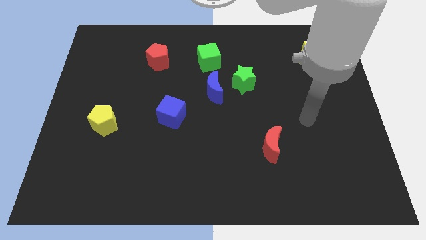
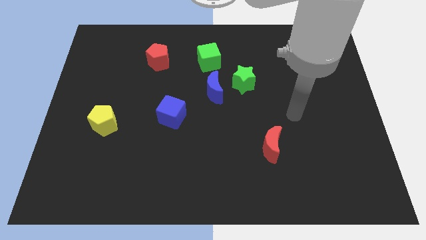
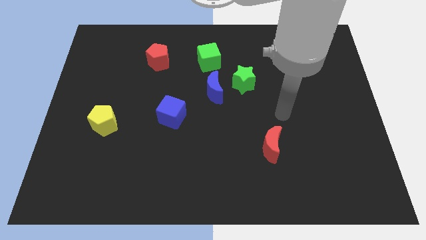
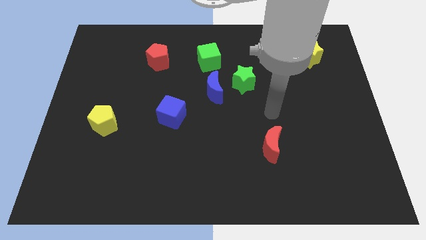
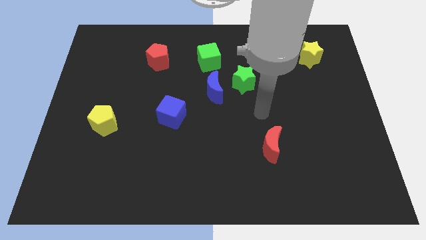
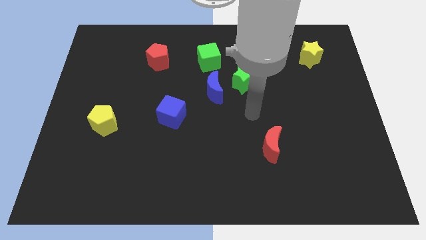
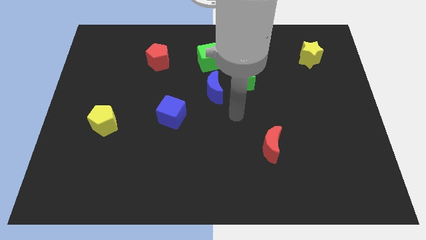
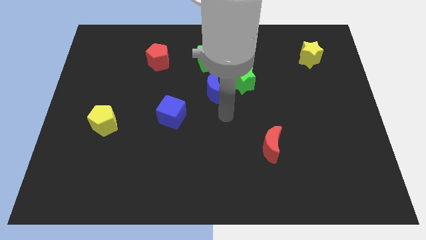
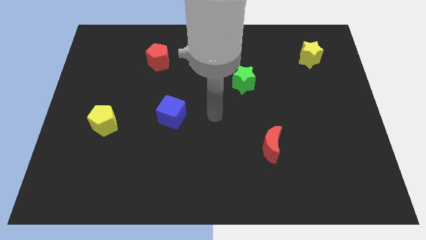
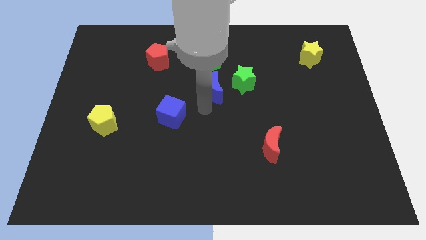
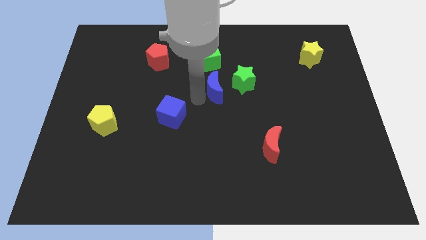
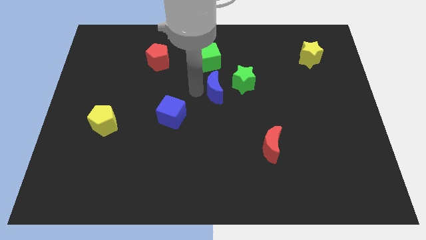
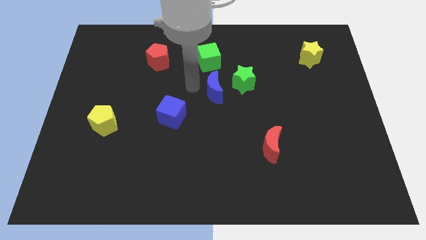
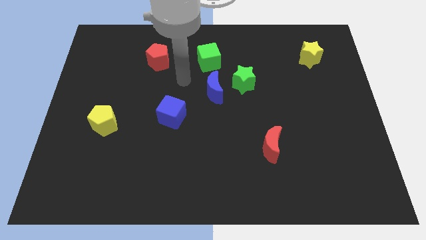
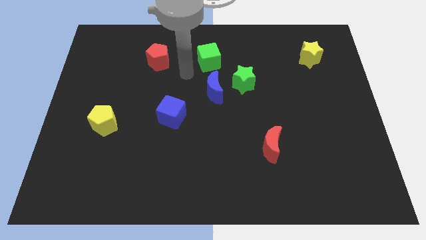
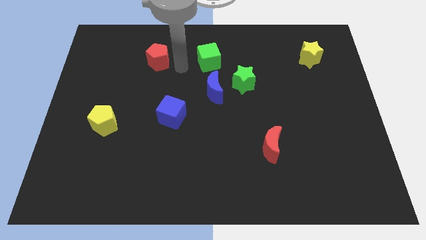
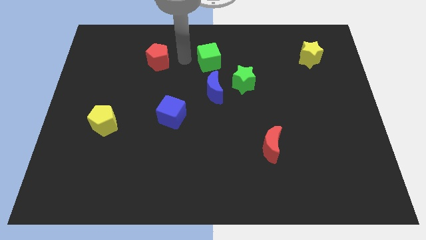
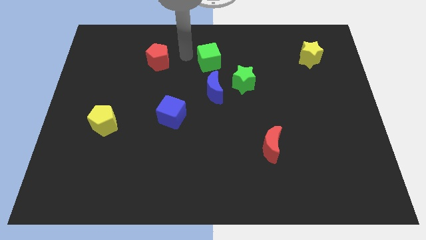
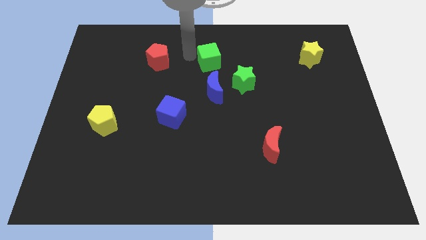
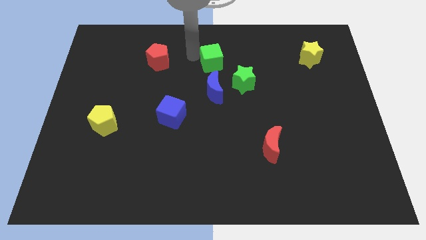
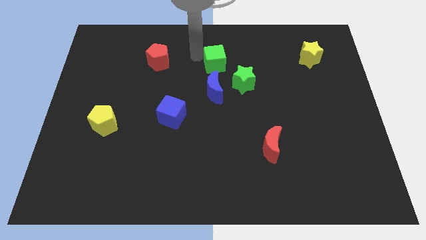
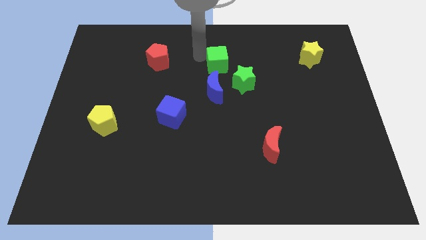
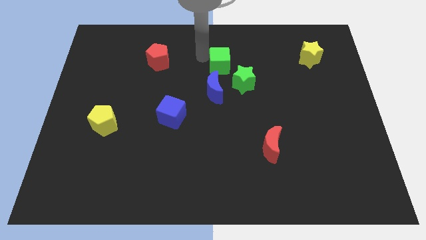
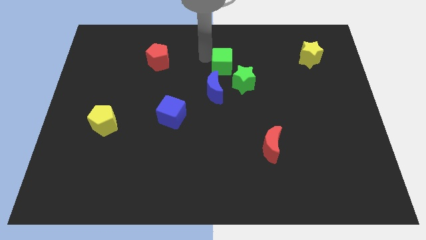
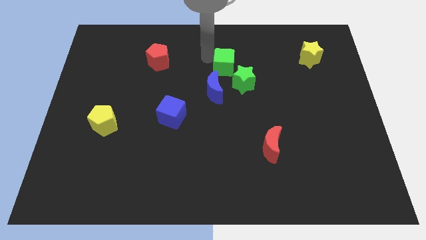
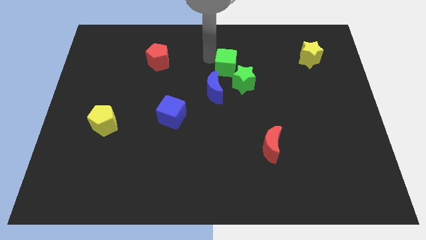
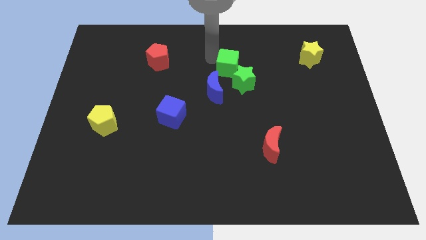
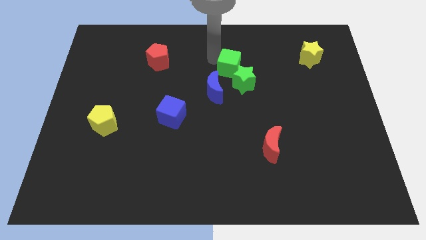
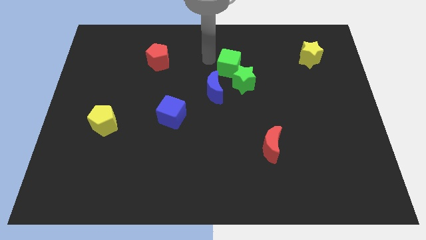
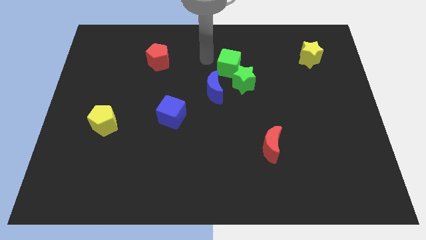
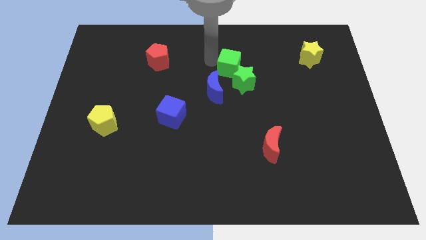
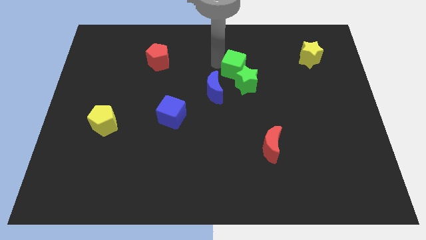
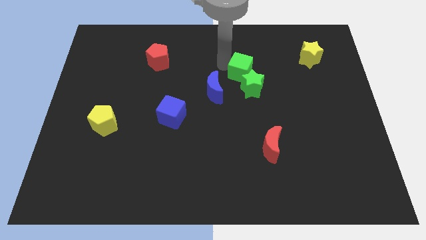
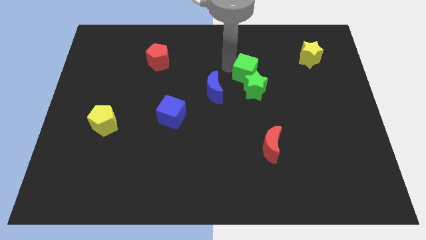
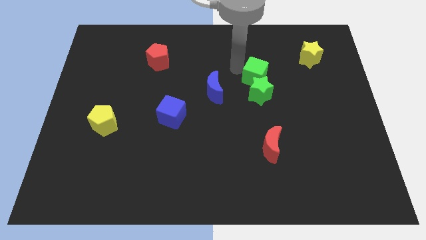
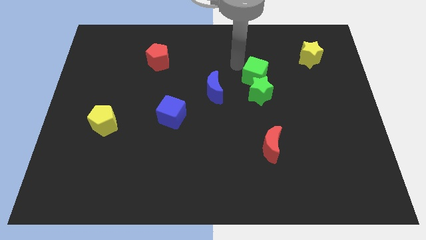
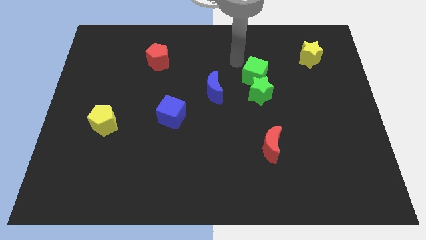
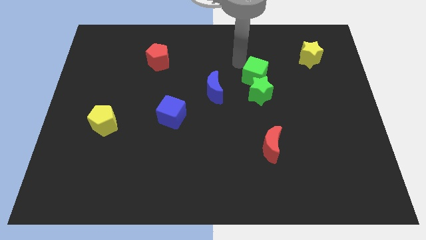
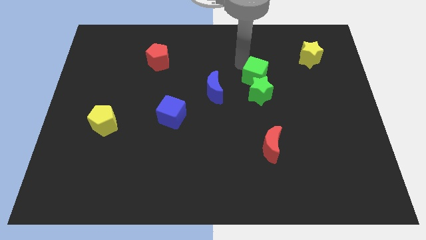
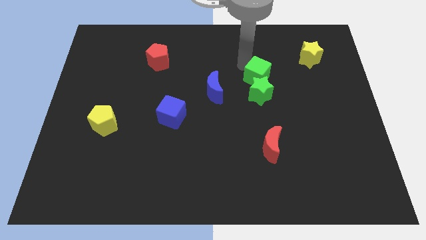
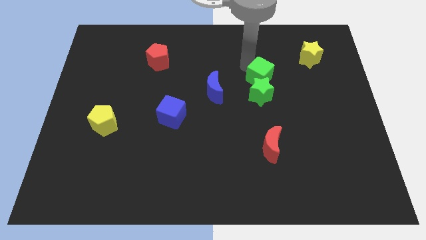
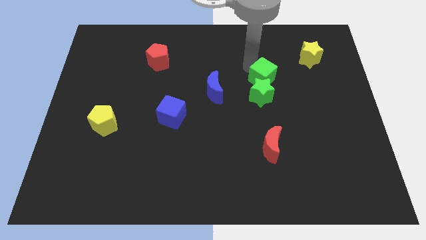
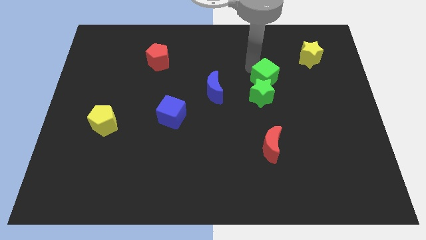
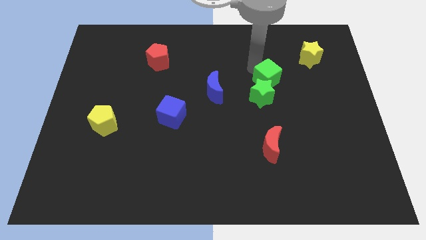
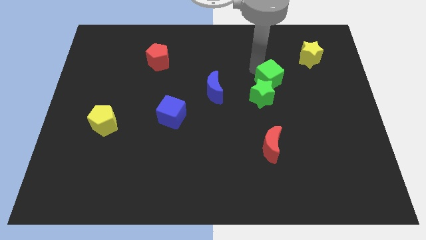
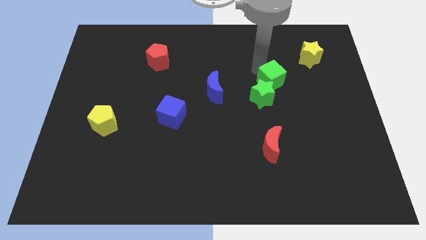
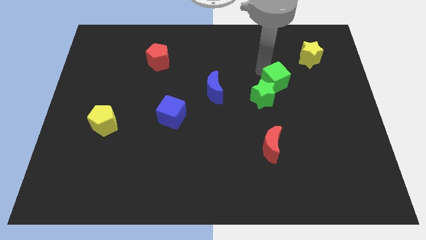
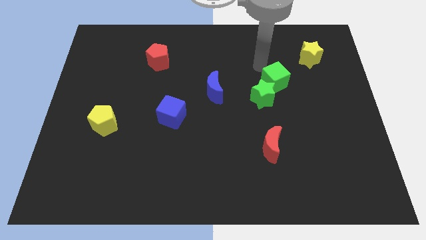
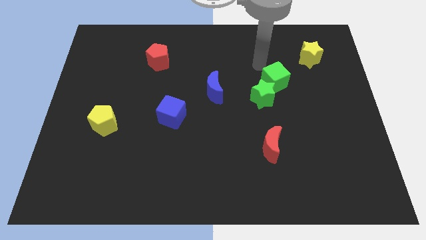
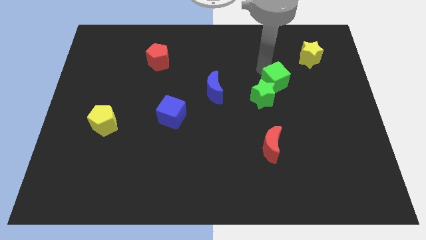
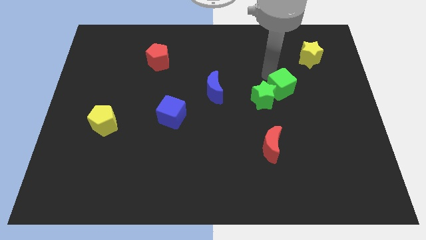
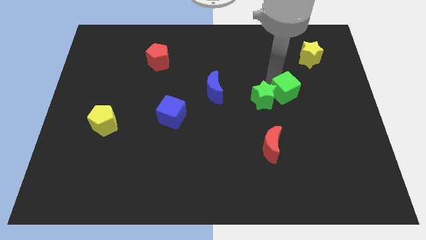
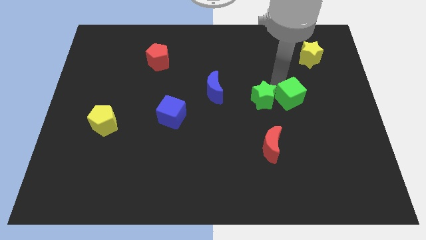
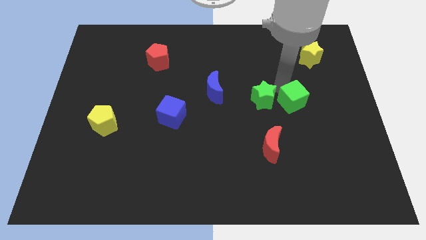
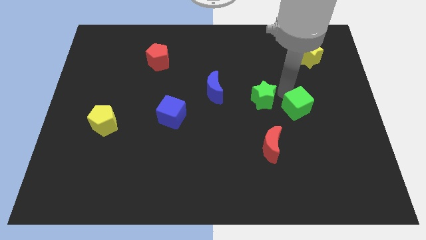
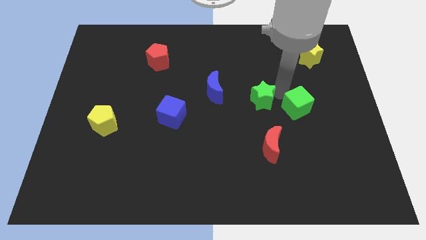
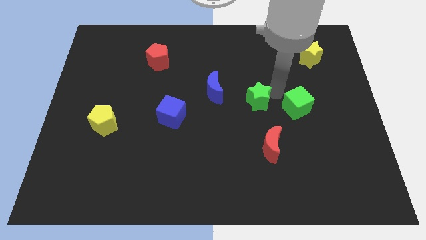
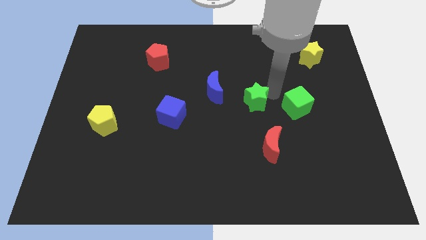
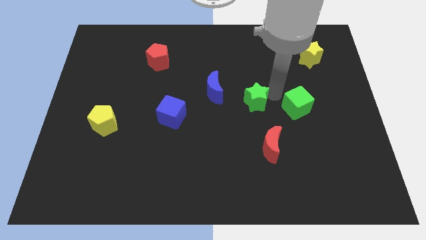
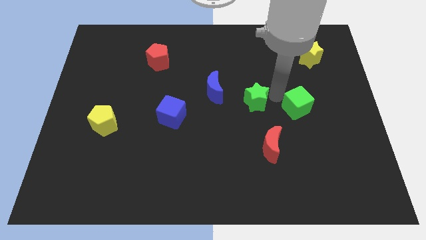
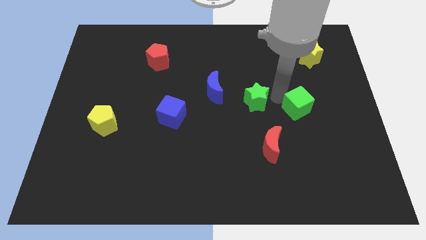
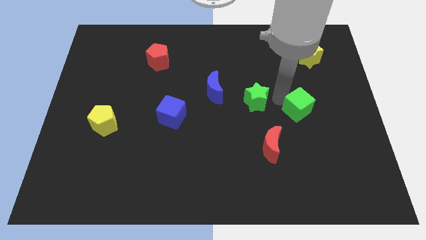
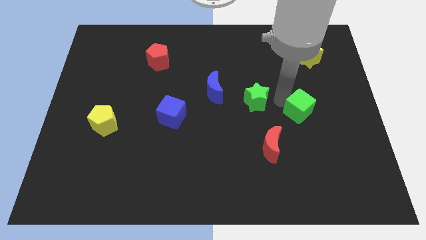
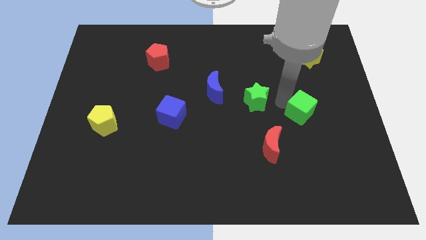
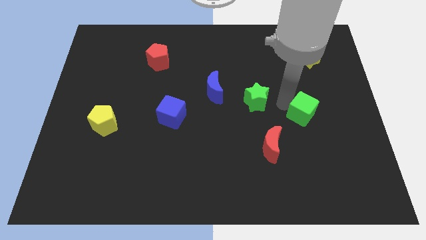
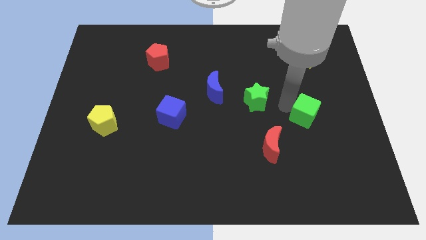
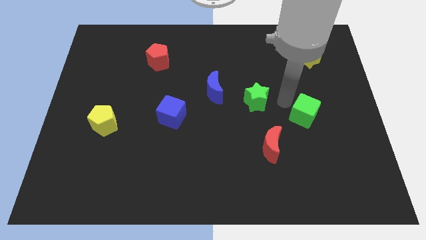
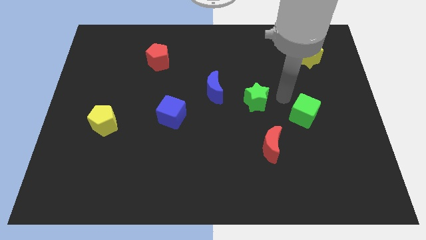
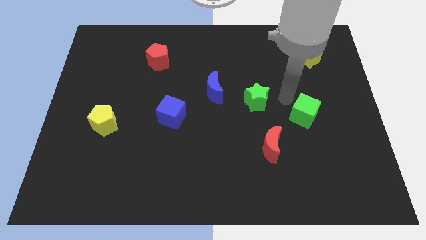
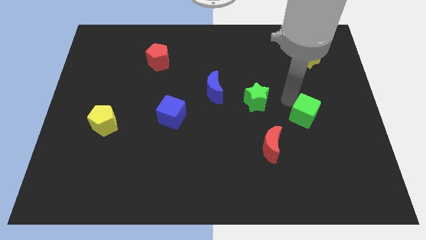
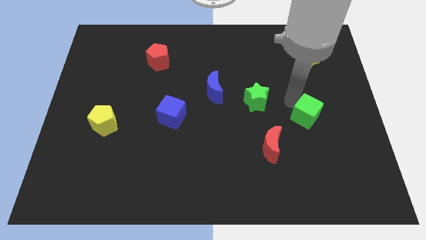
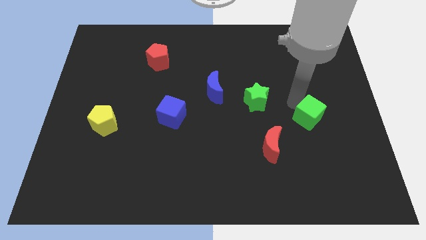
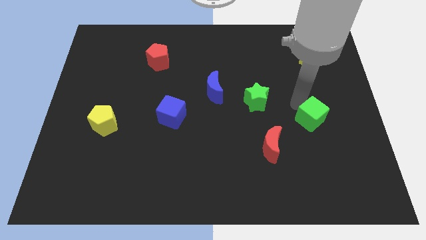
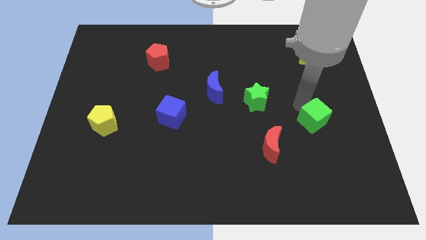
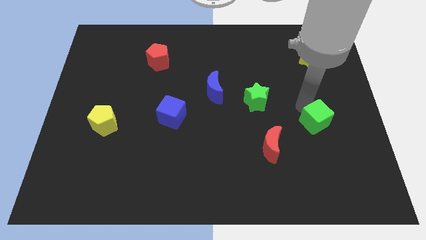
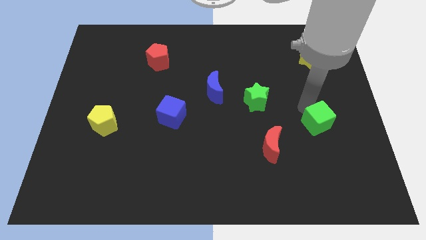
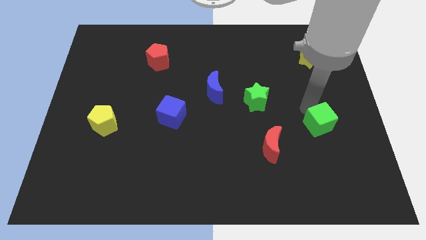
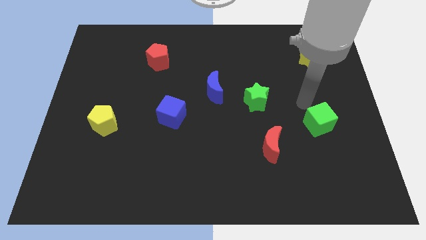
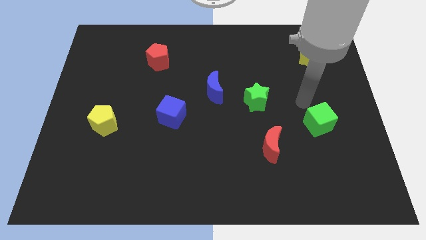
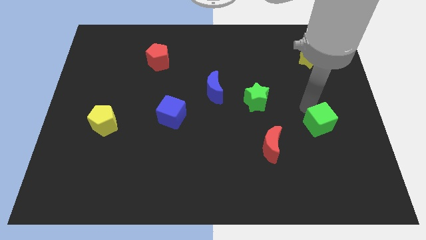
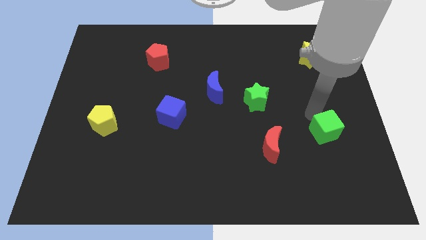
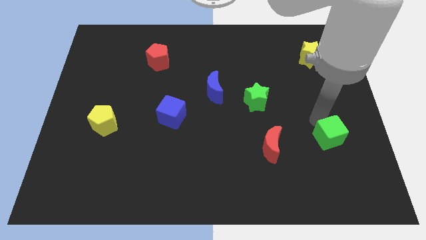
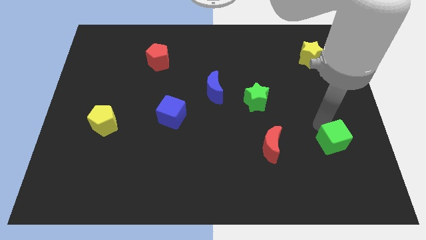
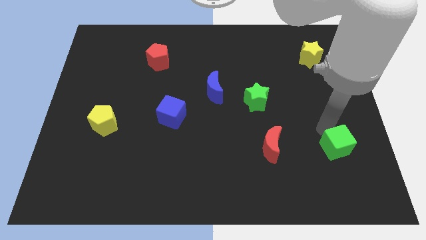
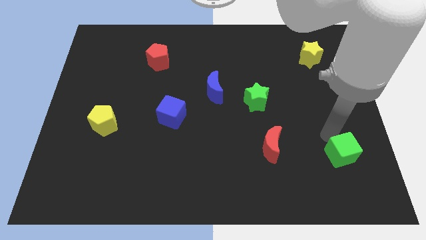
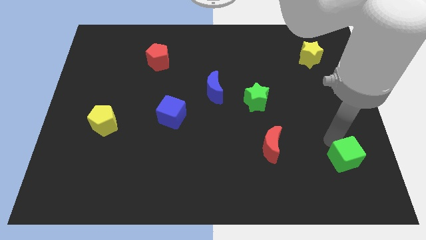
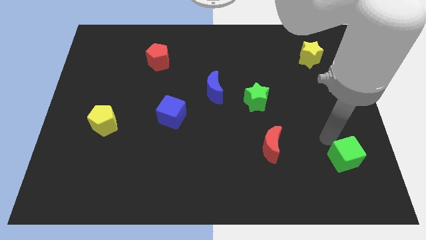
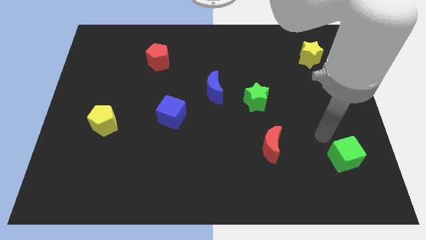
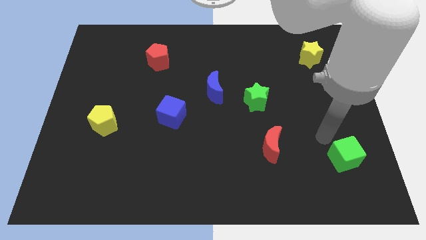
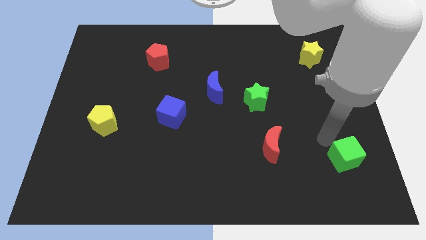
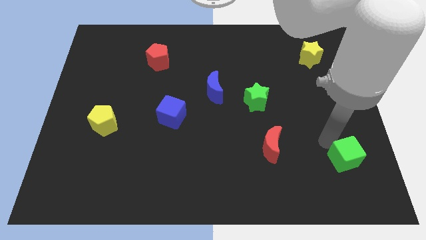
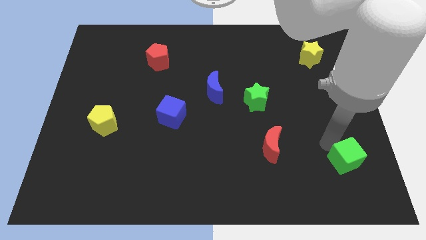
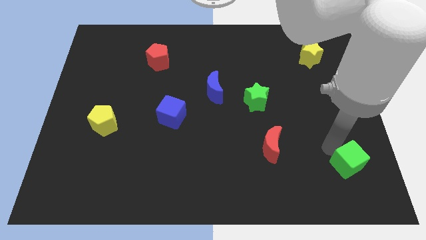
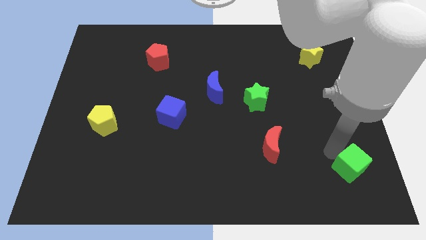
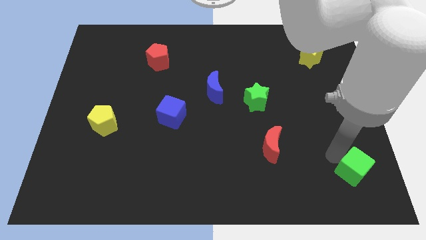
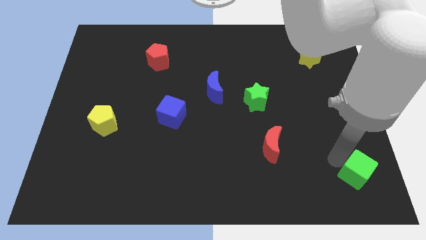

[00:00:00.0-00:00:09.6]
push the green cube to the bottom right
